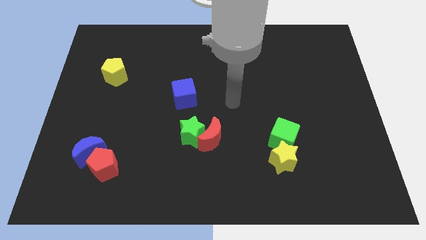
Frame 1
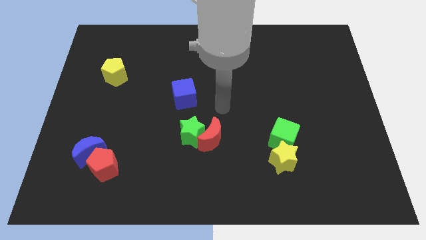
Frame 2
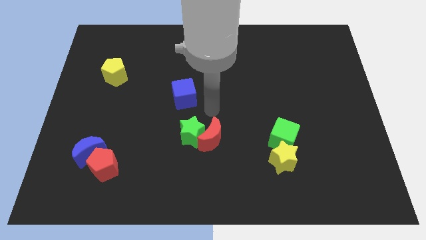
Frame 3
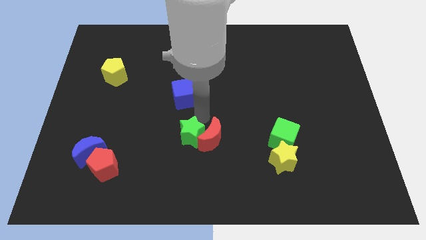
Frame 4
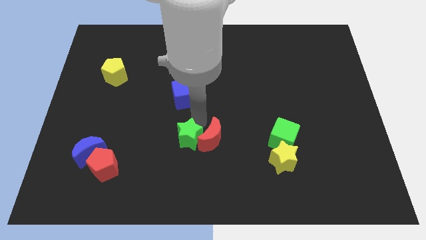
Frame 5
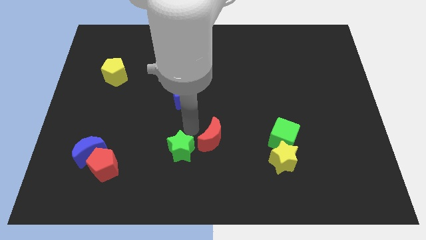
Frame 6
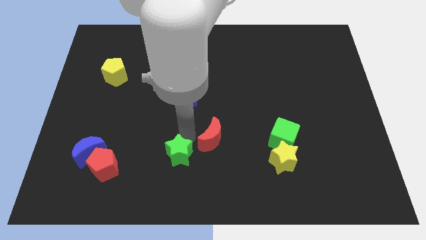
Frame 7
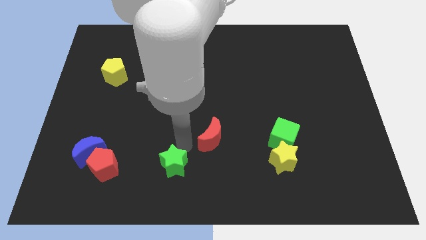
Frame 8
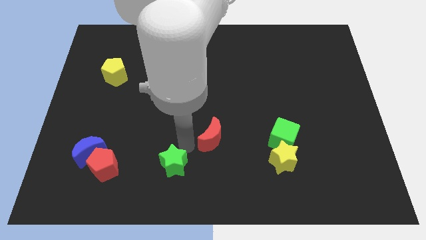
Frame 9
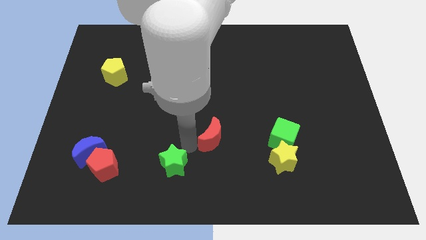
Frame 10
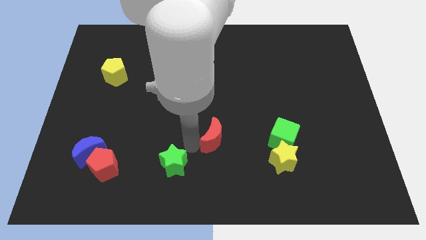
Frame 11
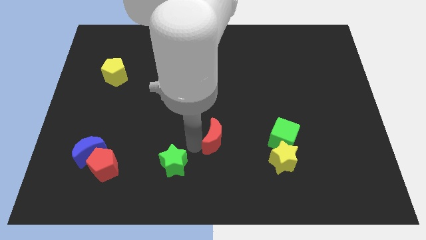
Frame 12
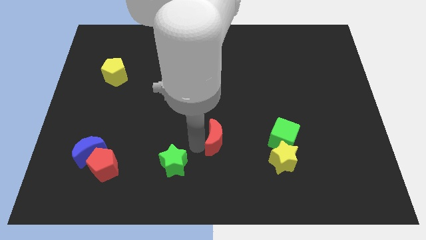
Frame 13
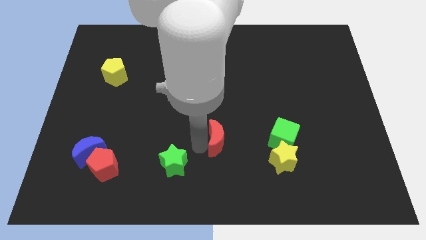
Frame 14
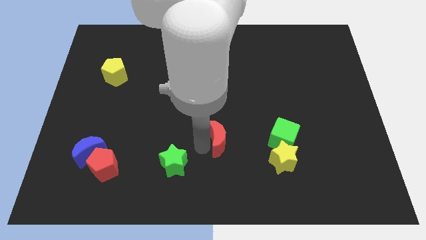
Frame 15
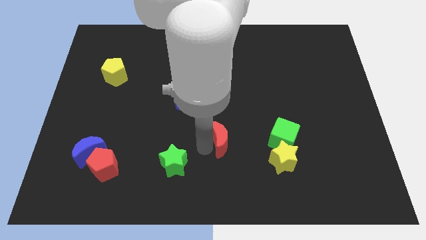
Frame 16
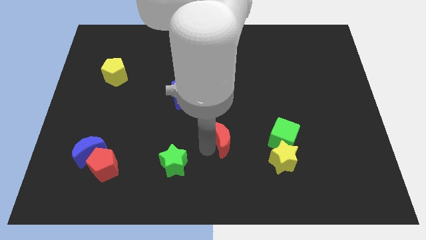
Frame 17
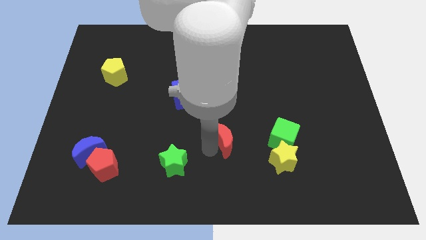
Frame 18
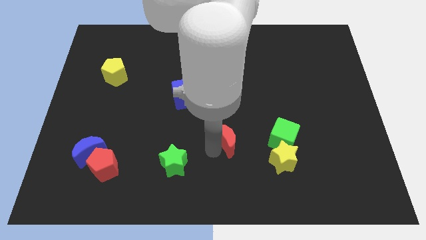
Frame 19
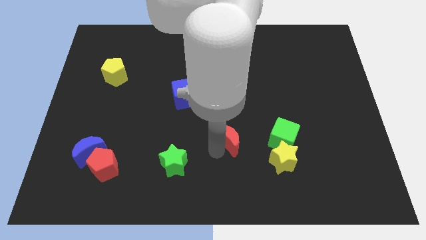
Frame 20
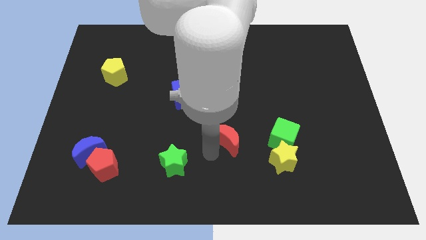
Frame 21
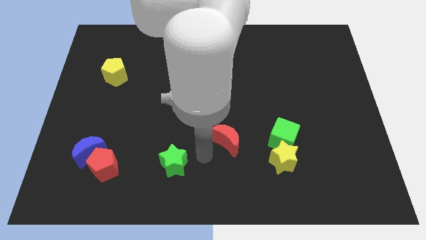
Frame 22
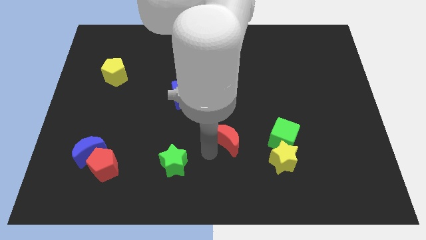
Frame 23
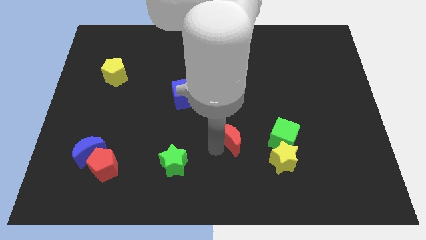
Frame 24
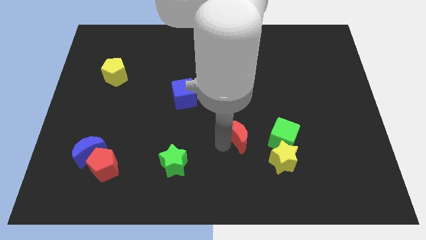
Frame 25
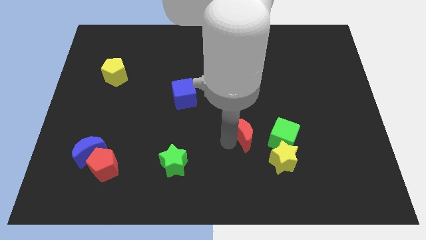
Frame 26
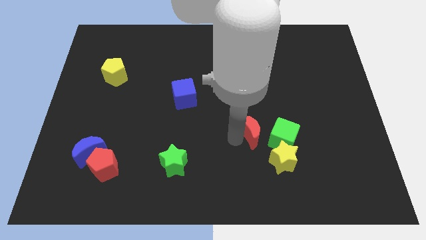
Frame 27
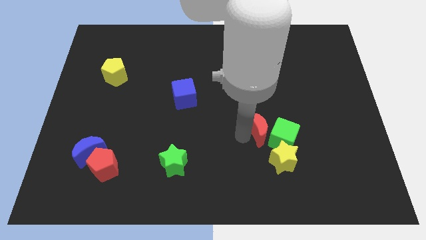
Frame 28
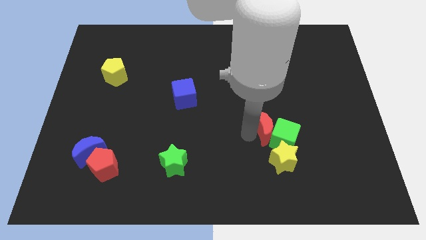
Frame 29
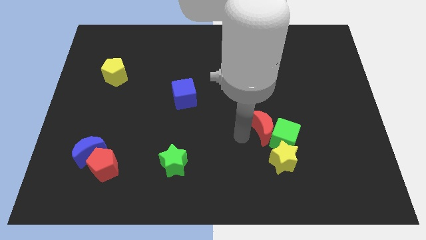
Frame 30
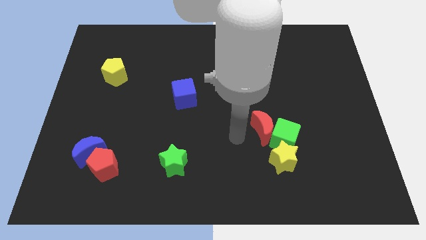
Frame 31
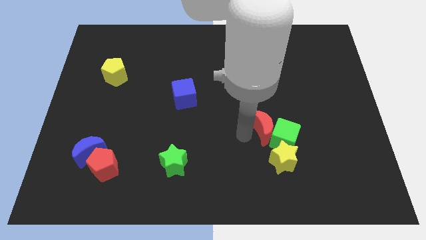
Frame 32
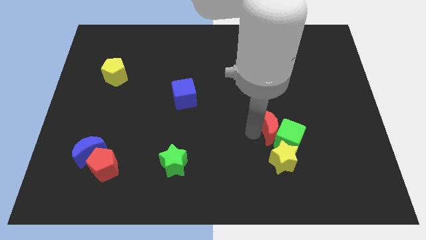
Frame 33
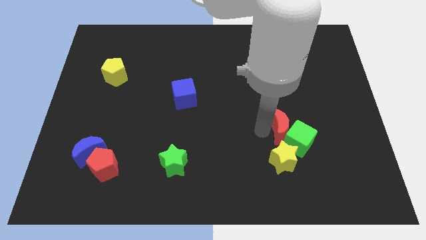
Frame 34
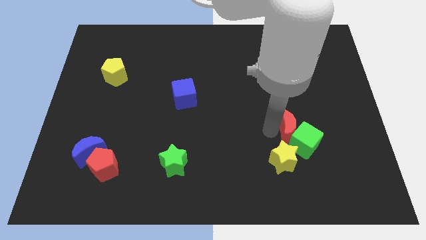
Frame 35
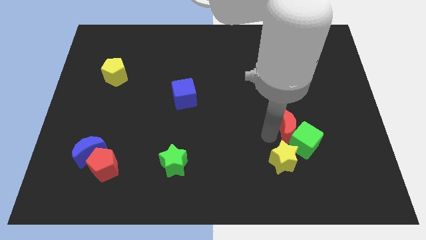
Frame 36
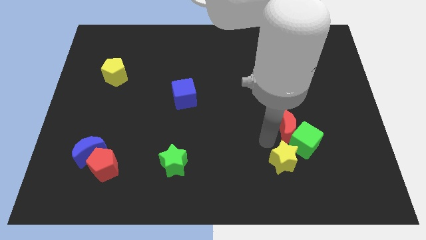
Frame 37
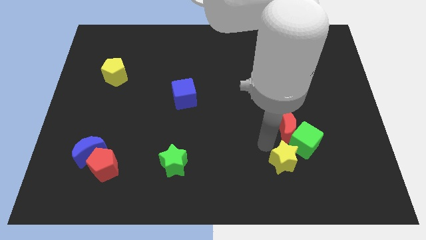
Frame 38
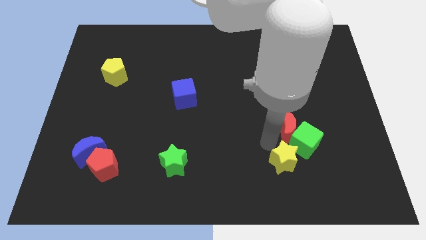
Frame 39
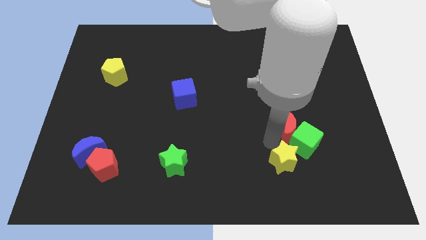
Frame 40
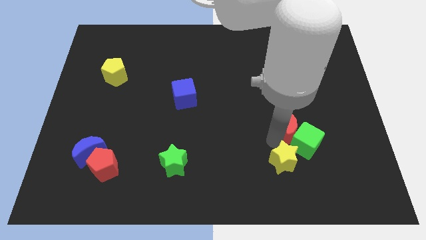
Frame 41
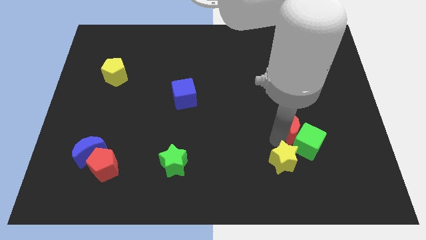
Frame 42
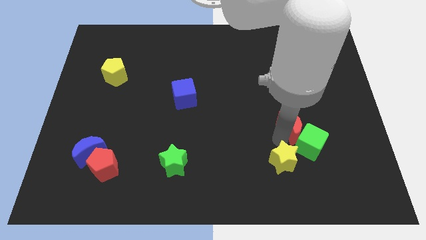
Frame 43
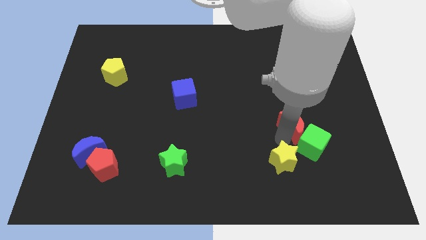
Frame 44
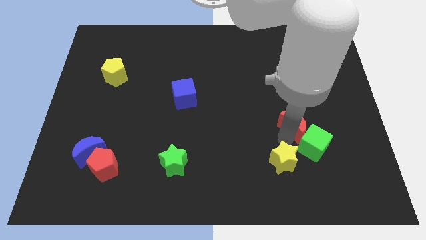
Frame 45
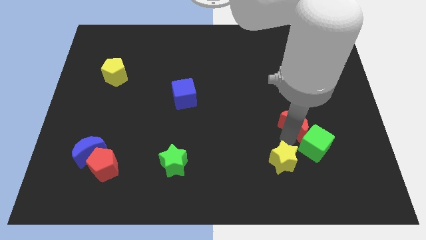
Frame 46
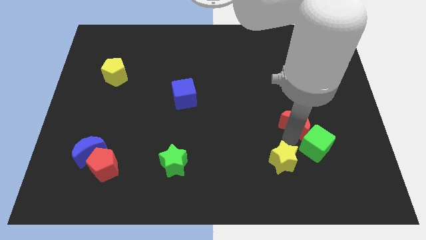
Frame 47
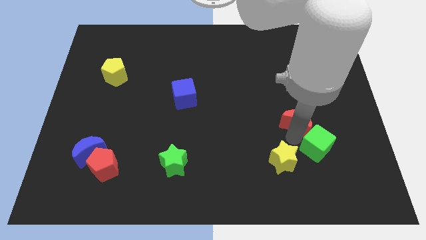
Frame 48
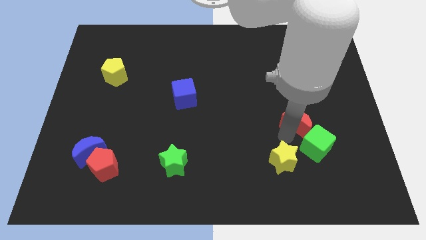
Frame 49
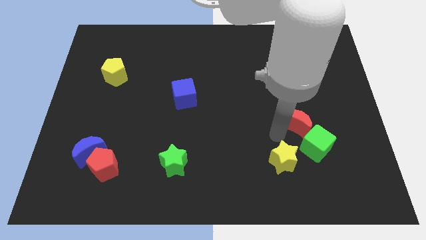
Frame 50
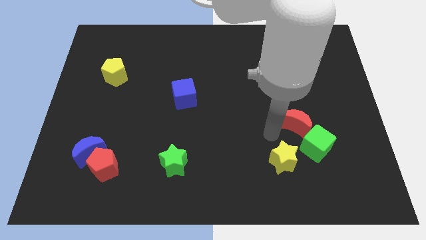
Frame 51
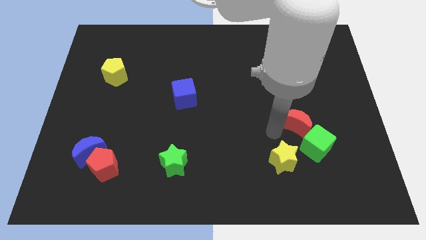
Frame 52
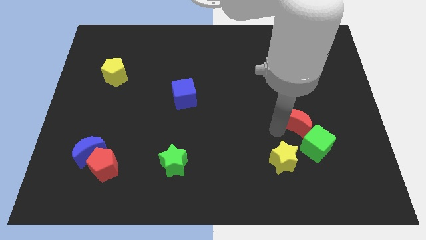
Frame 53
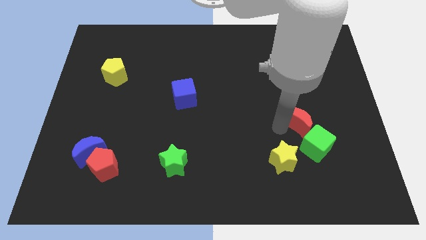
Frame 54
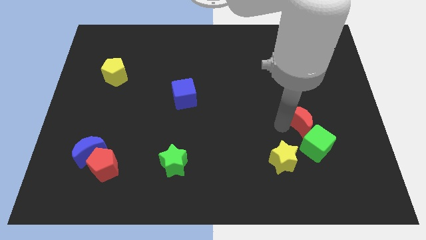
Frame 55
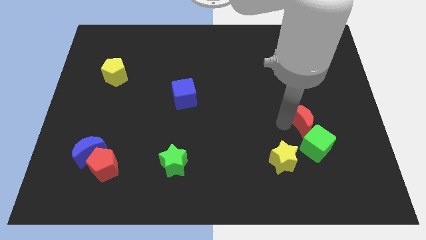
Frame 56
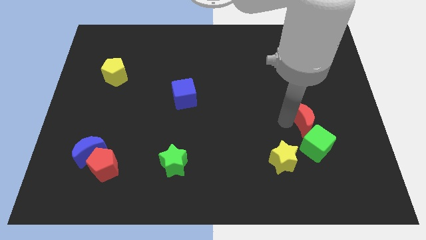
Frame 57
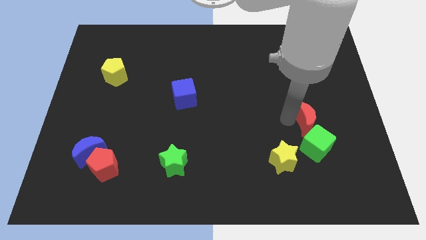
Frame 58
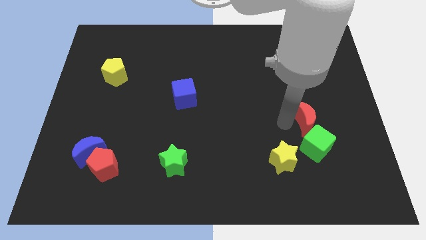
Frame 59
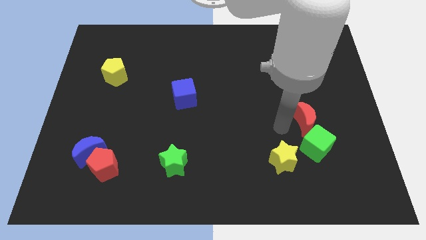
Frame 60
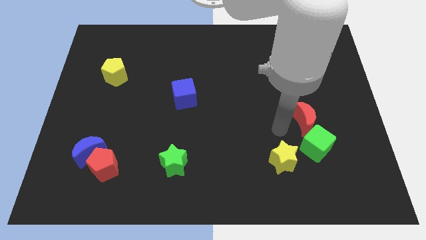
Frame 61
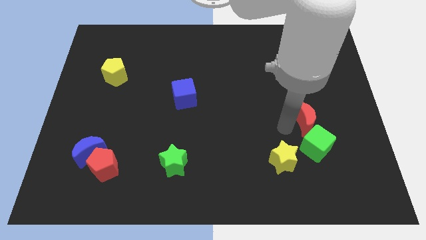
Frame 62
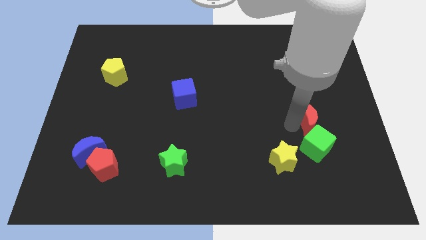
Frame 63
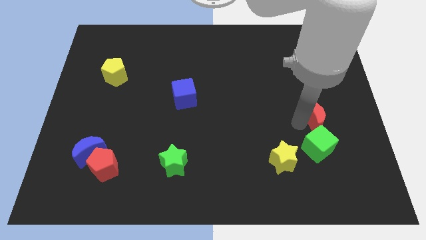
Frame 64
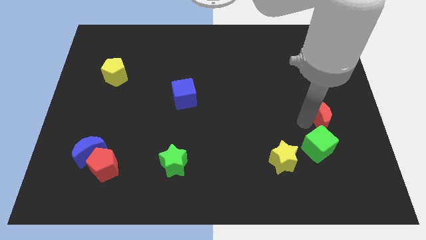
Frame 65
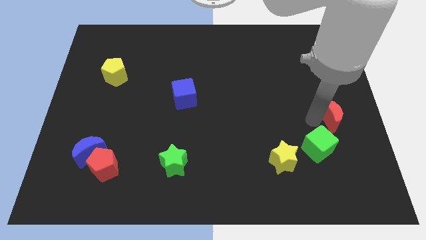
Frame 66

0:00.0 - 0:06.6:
move the red moon to the center right
